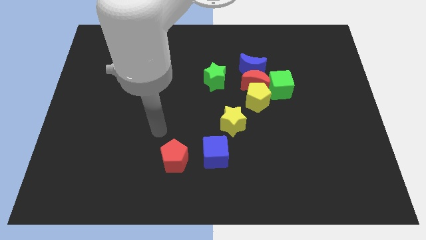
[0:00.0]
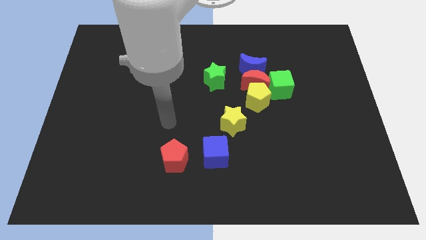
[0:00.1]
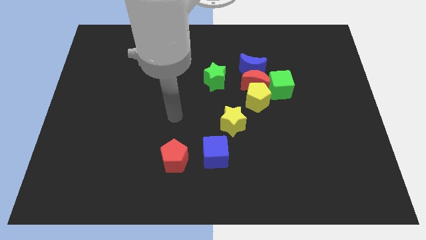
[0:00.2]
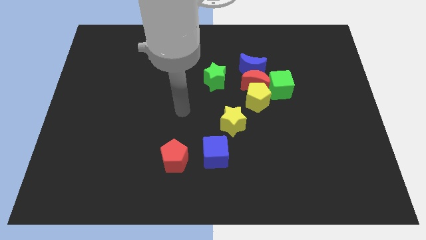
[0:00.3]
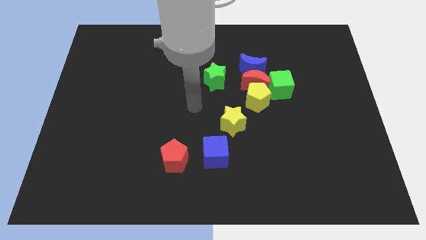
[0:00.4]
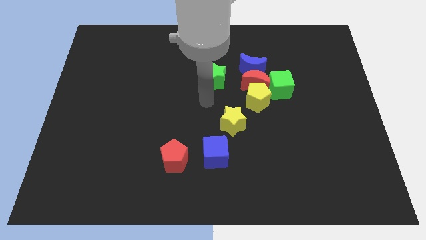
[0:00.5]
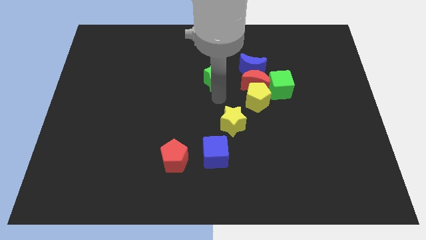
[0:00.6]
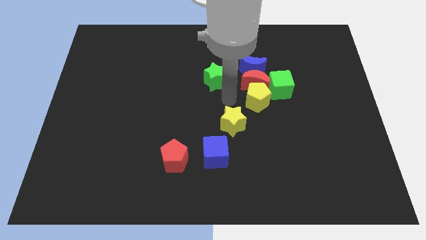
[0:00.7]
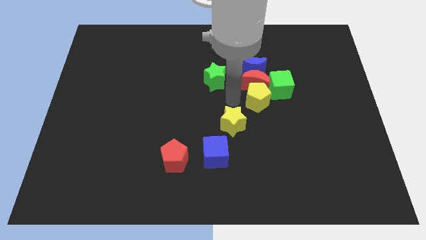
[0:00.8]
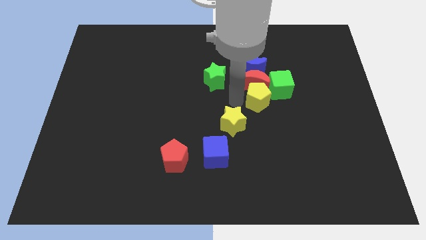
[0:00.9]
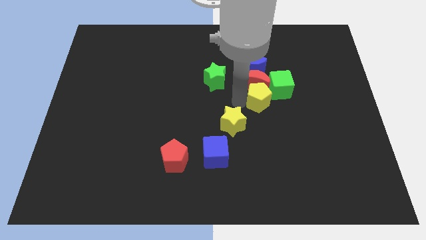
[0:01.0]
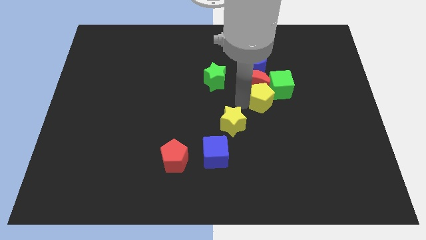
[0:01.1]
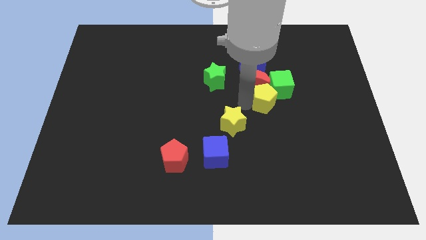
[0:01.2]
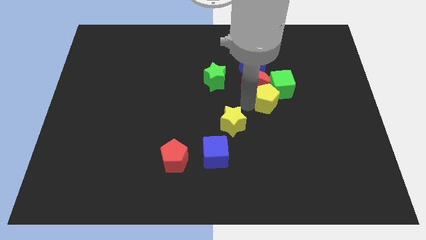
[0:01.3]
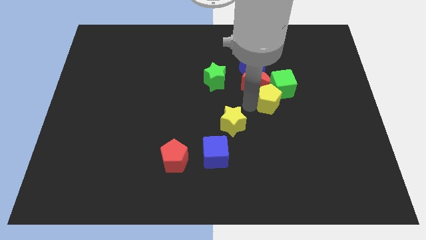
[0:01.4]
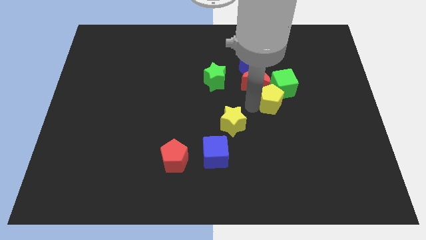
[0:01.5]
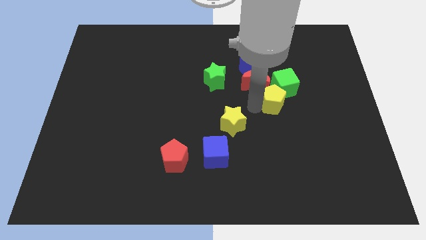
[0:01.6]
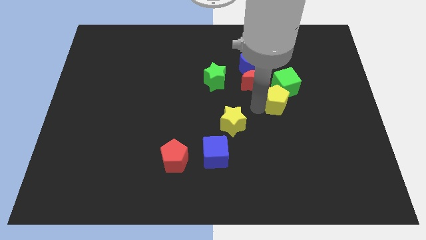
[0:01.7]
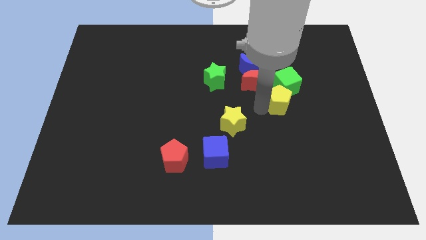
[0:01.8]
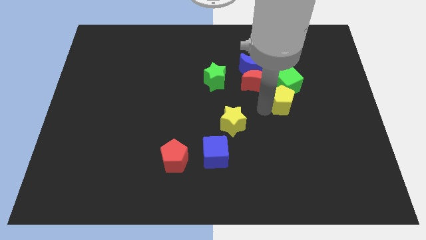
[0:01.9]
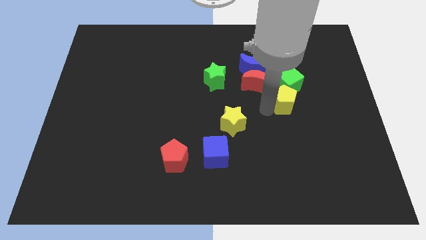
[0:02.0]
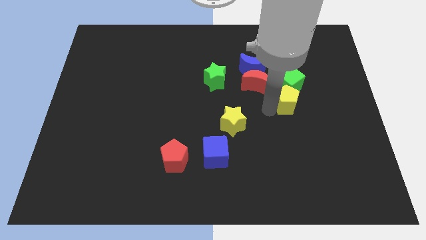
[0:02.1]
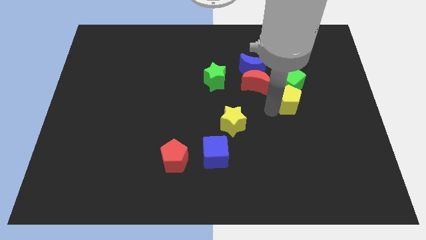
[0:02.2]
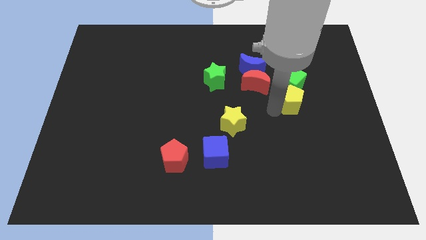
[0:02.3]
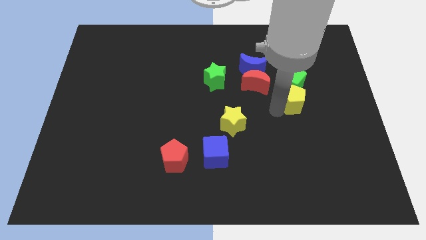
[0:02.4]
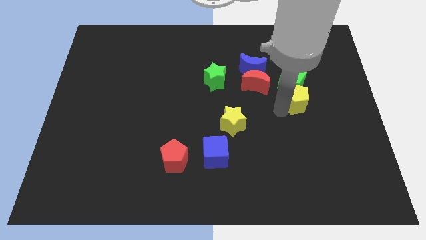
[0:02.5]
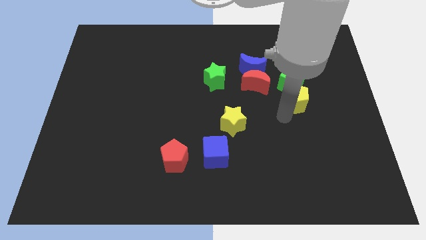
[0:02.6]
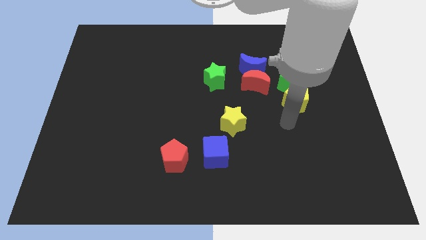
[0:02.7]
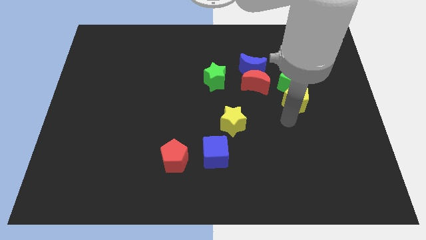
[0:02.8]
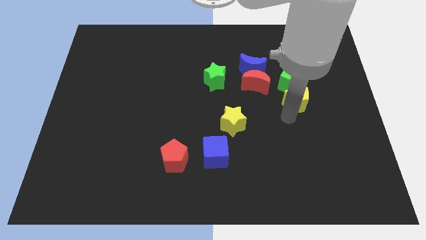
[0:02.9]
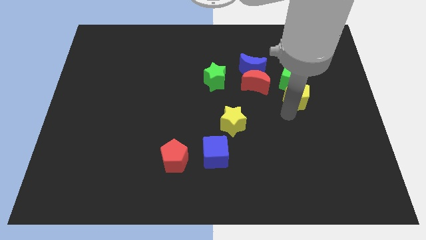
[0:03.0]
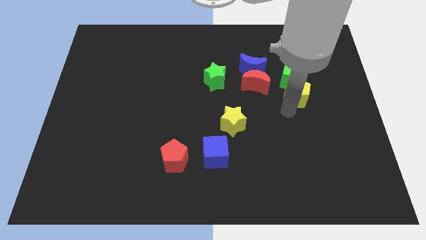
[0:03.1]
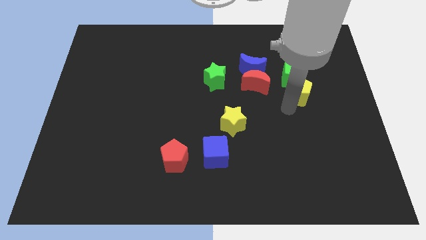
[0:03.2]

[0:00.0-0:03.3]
move the yellow pentagon a little up and right

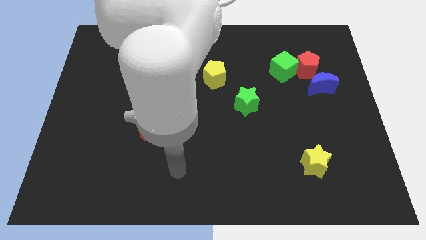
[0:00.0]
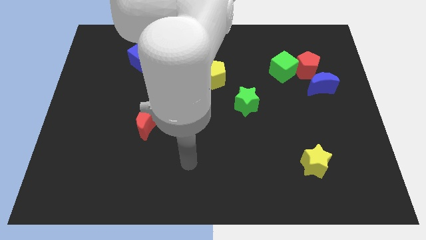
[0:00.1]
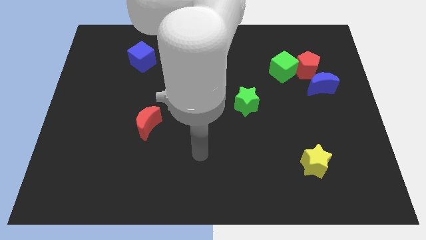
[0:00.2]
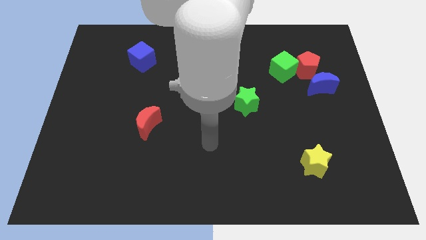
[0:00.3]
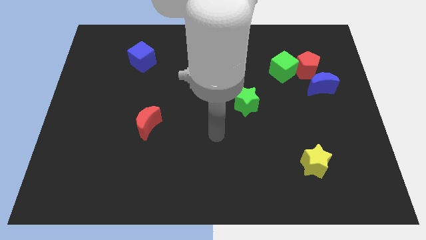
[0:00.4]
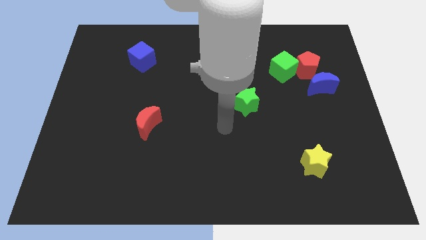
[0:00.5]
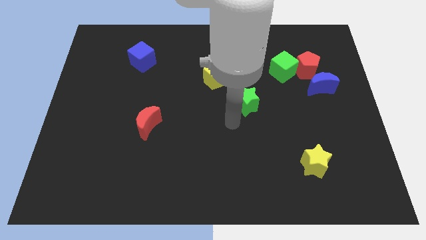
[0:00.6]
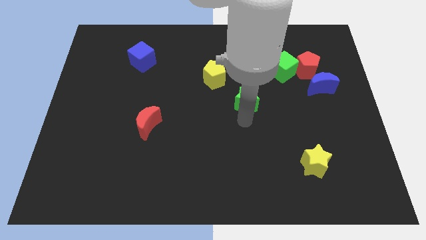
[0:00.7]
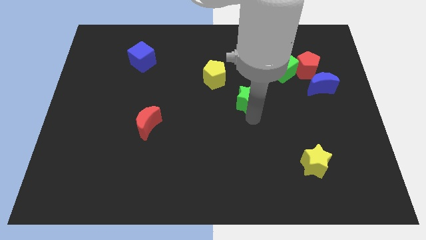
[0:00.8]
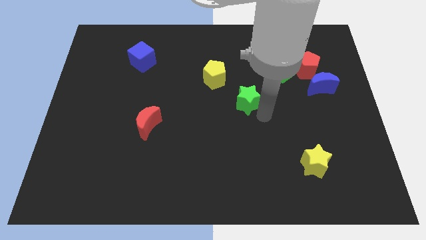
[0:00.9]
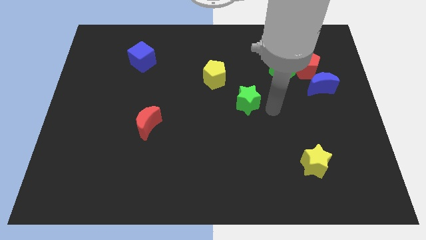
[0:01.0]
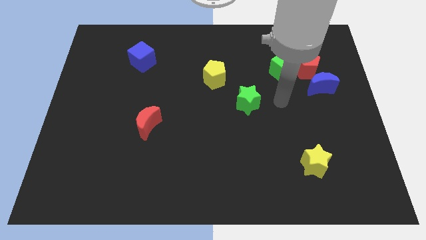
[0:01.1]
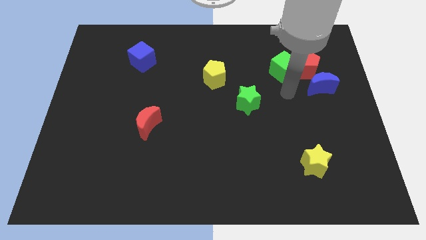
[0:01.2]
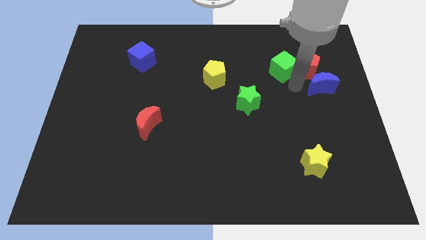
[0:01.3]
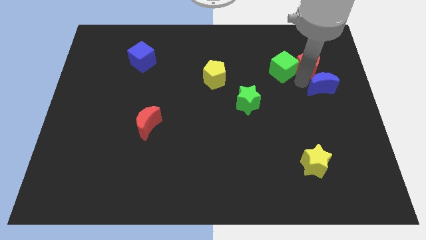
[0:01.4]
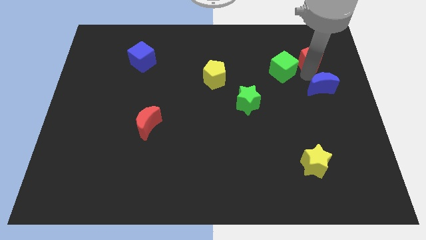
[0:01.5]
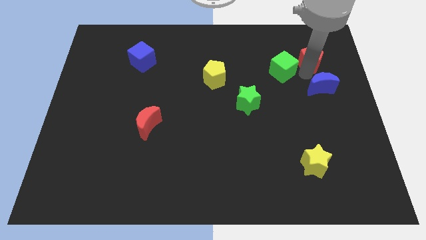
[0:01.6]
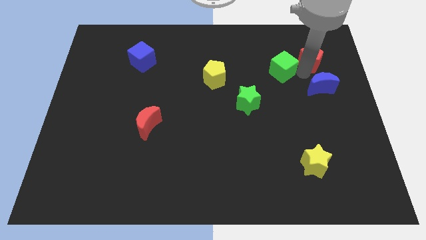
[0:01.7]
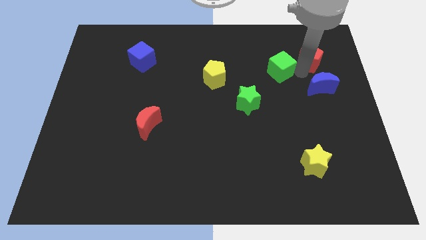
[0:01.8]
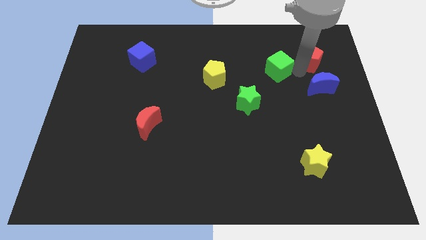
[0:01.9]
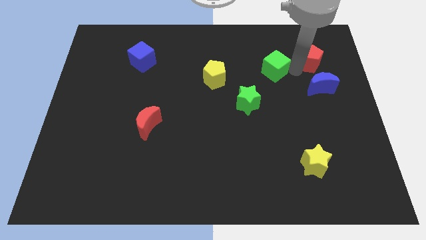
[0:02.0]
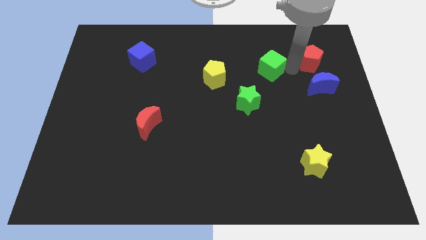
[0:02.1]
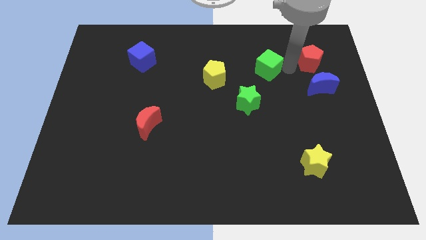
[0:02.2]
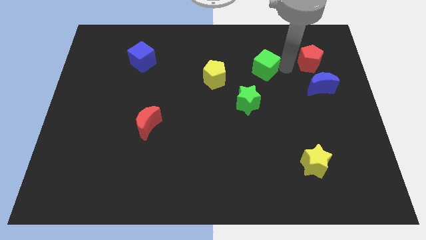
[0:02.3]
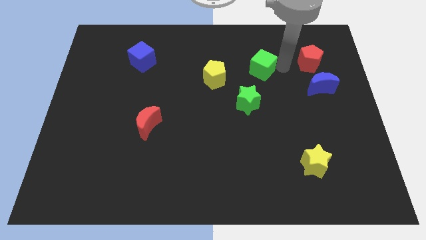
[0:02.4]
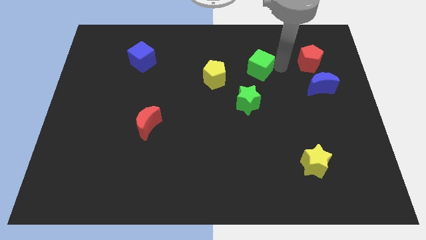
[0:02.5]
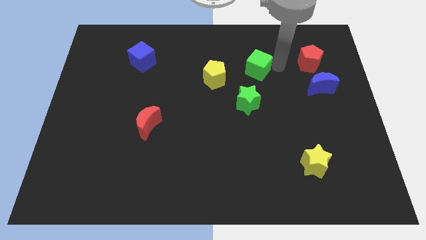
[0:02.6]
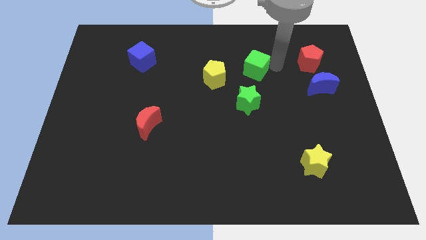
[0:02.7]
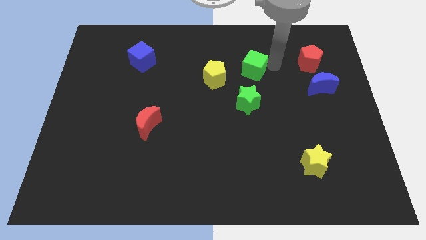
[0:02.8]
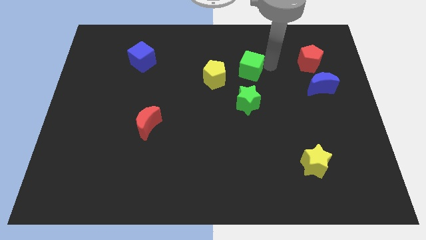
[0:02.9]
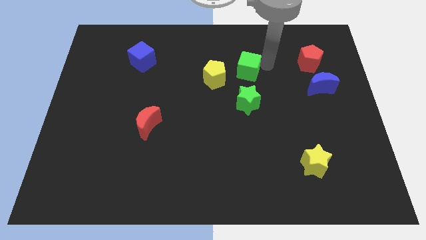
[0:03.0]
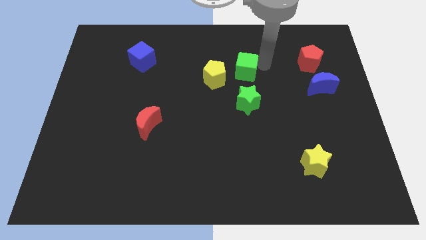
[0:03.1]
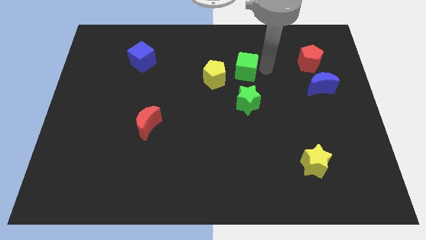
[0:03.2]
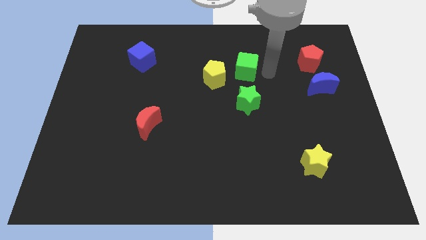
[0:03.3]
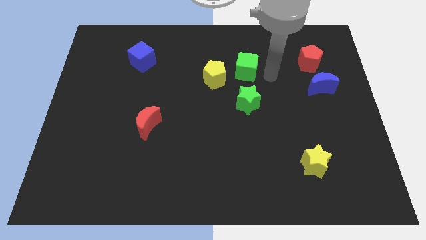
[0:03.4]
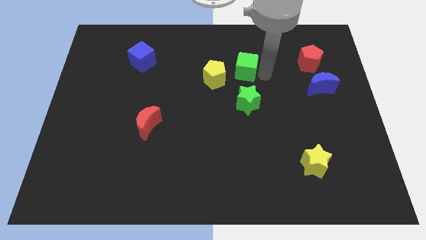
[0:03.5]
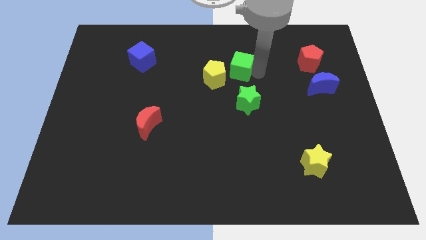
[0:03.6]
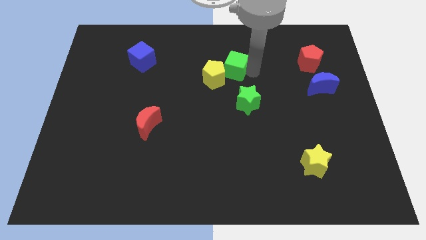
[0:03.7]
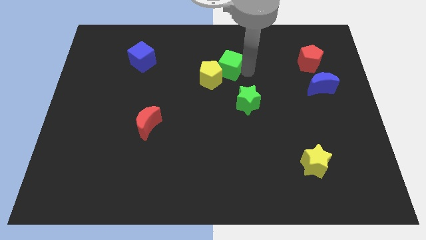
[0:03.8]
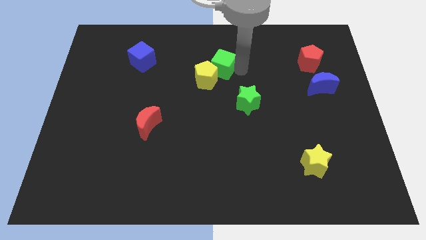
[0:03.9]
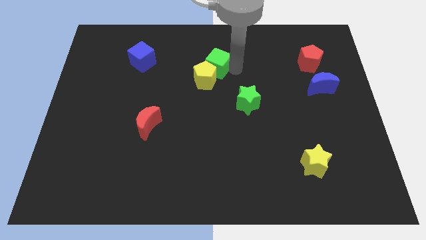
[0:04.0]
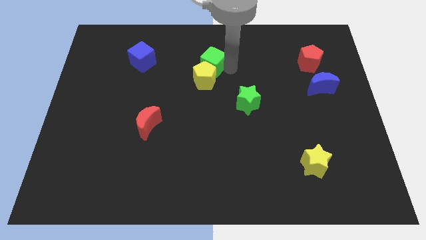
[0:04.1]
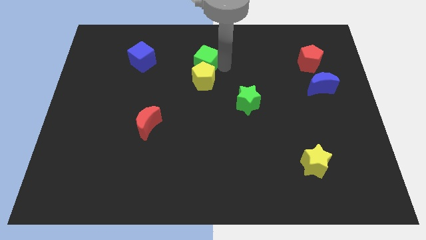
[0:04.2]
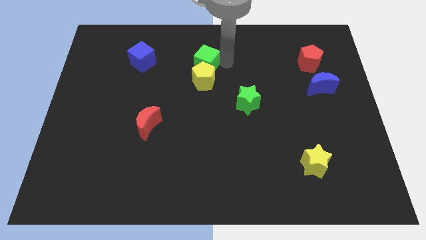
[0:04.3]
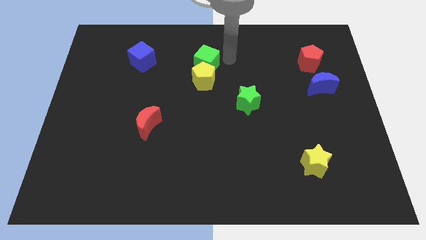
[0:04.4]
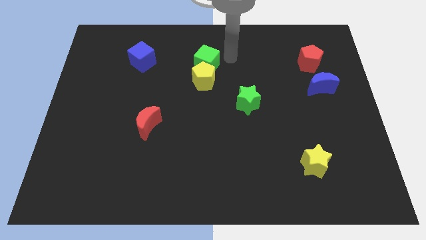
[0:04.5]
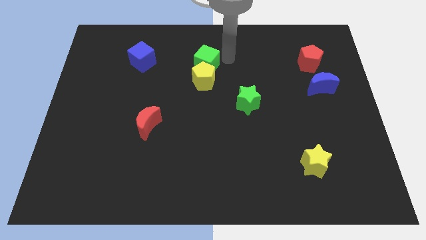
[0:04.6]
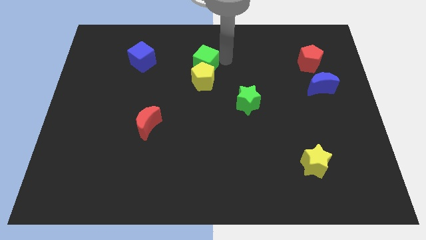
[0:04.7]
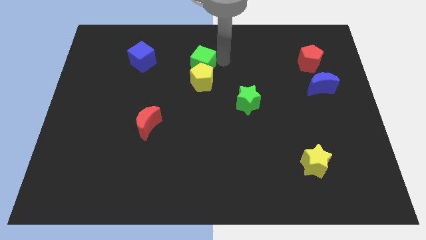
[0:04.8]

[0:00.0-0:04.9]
push the green cube to the left
